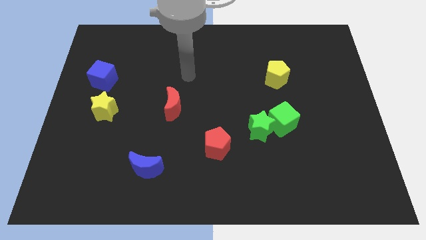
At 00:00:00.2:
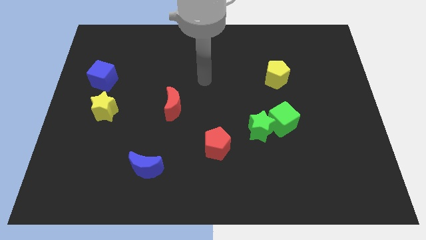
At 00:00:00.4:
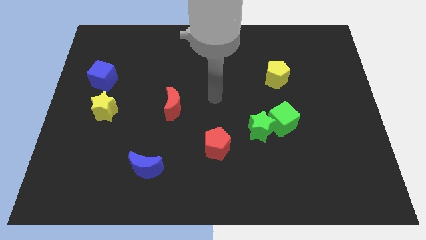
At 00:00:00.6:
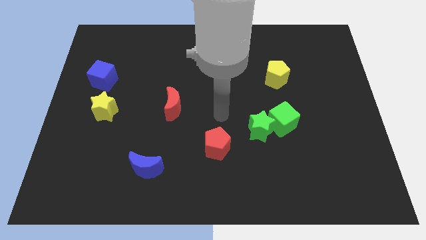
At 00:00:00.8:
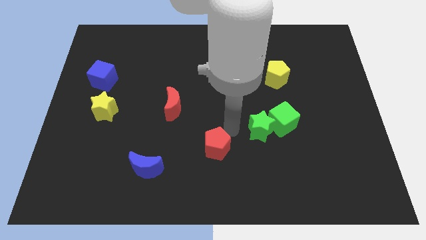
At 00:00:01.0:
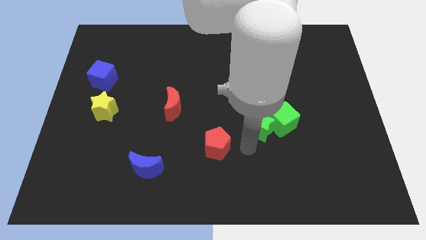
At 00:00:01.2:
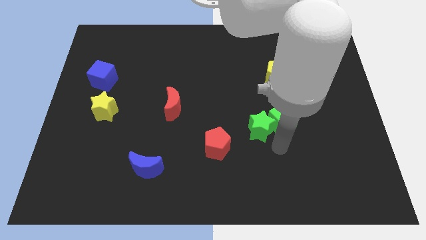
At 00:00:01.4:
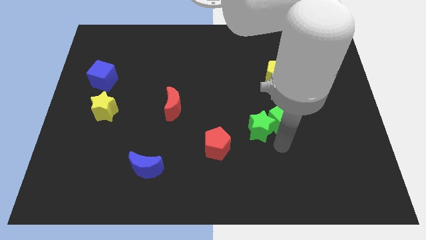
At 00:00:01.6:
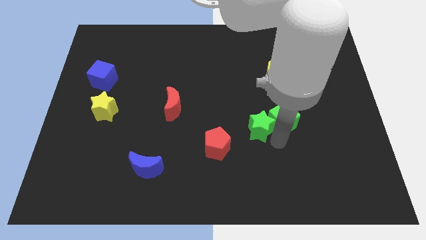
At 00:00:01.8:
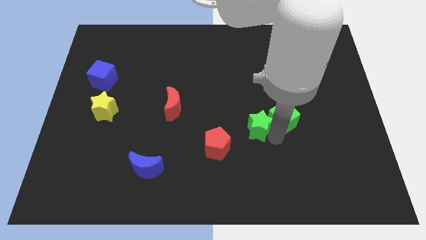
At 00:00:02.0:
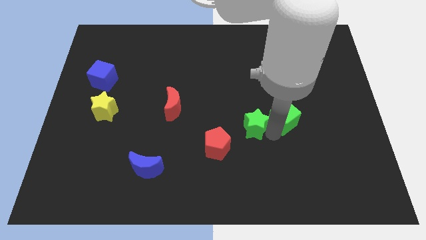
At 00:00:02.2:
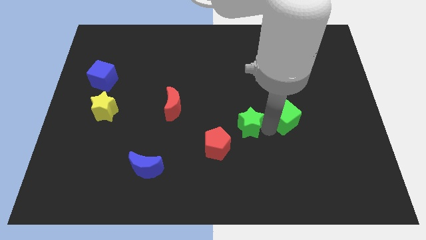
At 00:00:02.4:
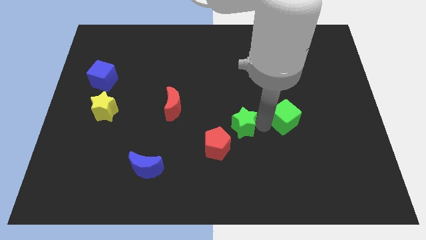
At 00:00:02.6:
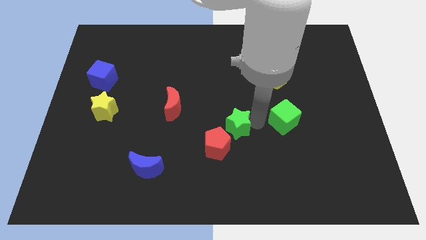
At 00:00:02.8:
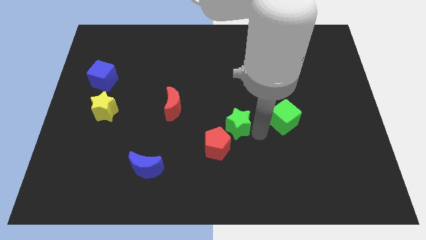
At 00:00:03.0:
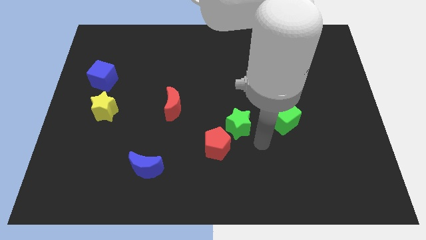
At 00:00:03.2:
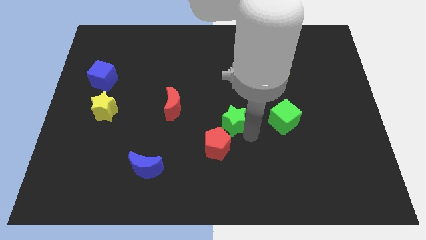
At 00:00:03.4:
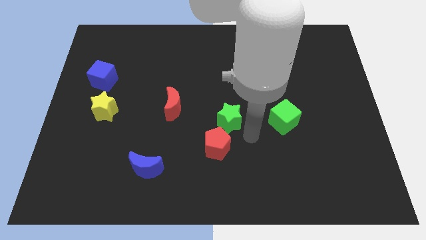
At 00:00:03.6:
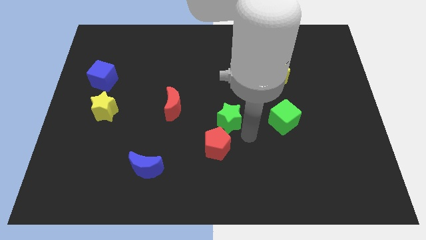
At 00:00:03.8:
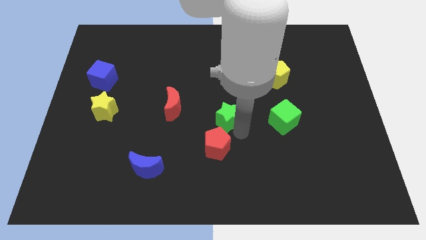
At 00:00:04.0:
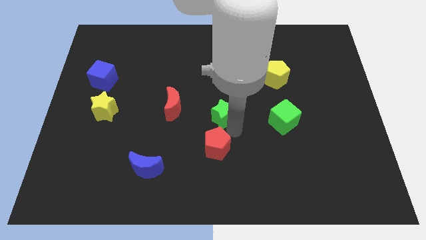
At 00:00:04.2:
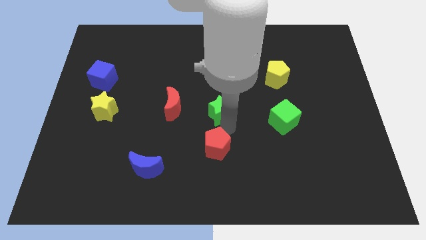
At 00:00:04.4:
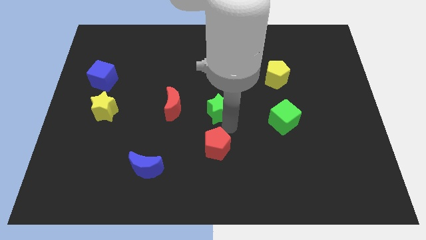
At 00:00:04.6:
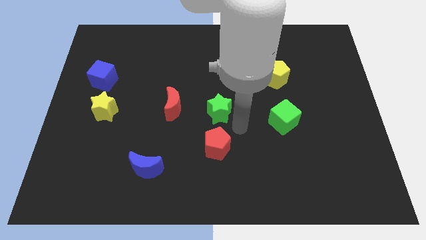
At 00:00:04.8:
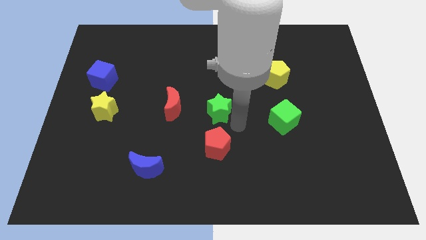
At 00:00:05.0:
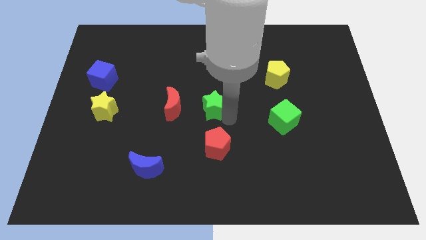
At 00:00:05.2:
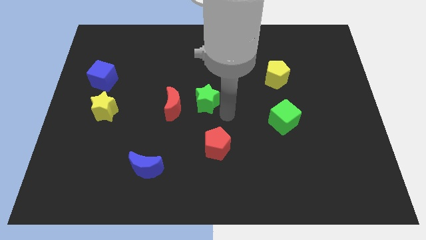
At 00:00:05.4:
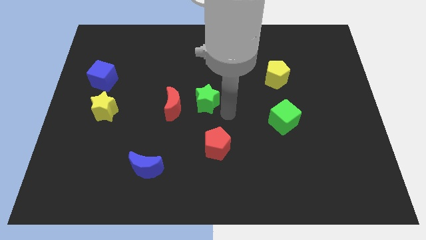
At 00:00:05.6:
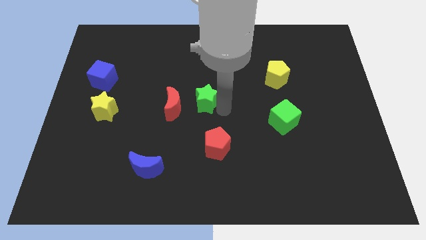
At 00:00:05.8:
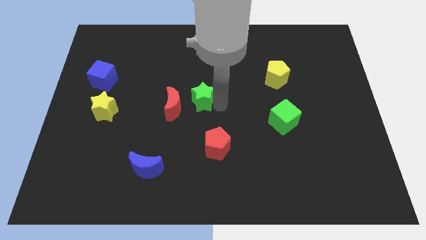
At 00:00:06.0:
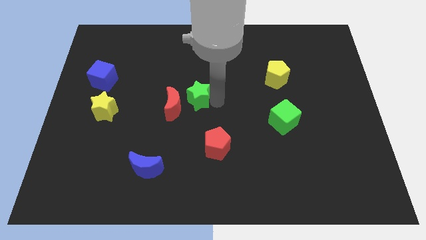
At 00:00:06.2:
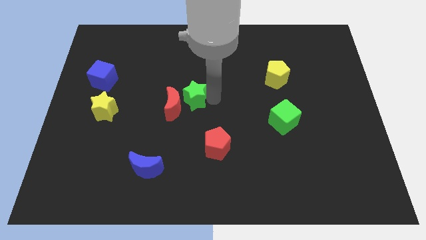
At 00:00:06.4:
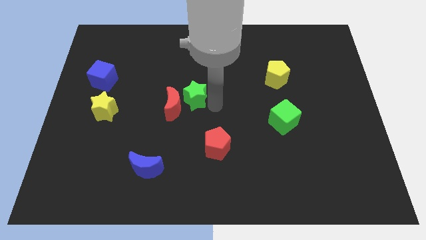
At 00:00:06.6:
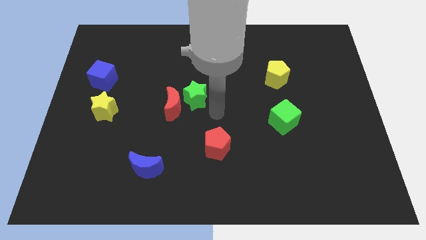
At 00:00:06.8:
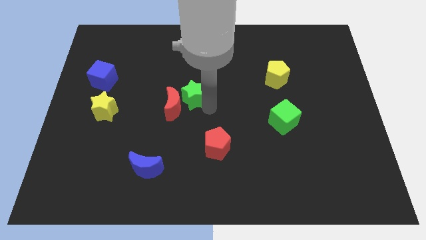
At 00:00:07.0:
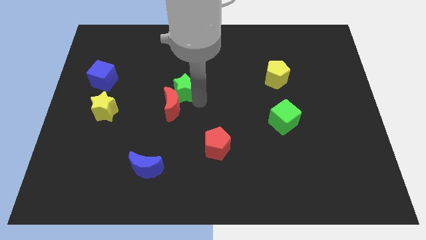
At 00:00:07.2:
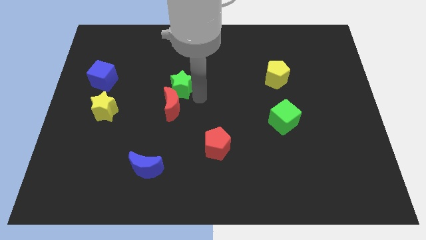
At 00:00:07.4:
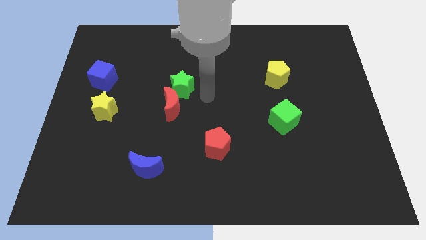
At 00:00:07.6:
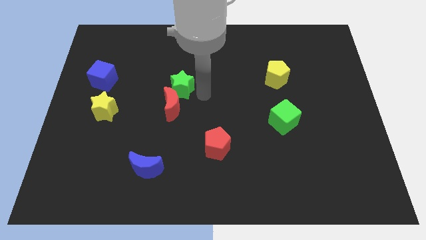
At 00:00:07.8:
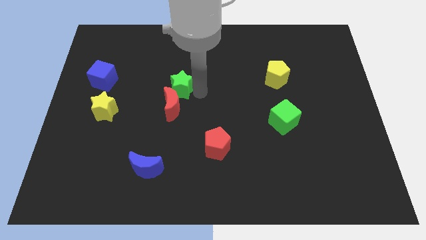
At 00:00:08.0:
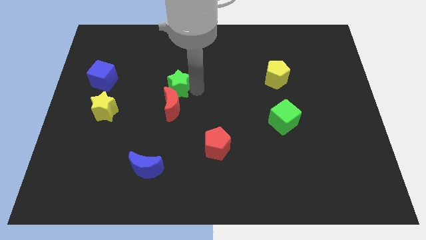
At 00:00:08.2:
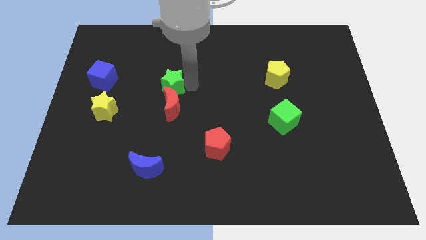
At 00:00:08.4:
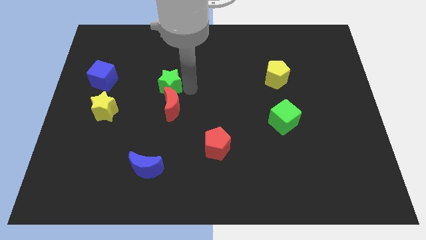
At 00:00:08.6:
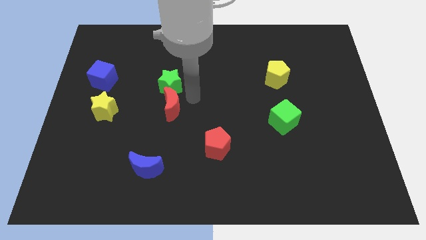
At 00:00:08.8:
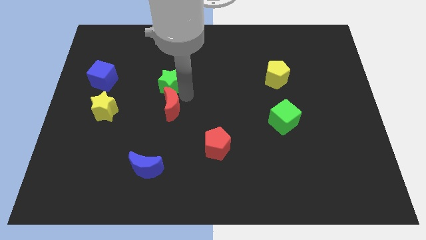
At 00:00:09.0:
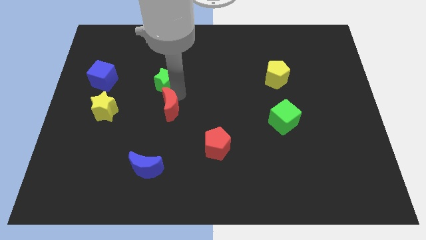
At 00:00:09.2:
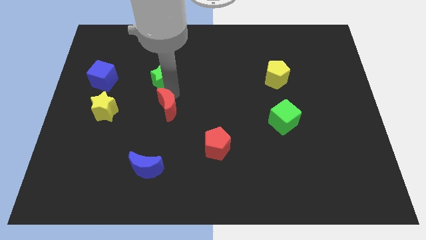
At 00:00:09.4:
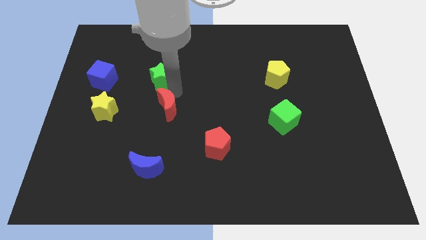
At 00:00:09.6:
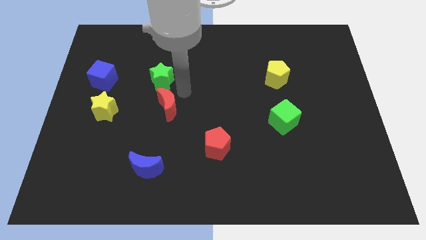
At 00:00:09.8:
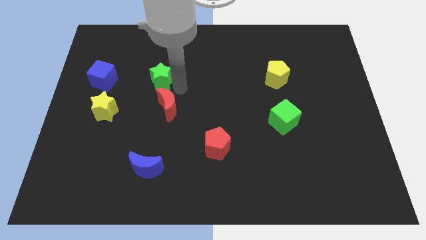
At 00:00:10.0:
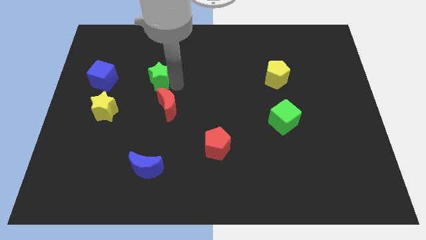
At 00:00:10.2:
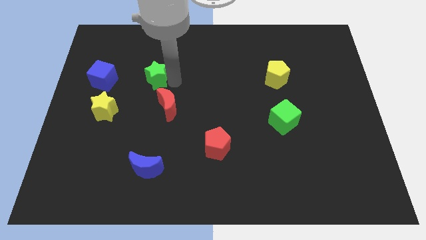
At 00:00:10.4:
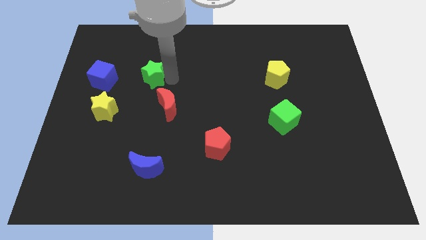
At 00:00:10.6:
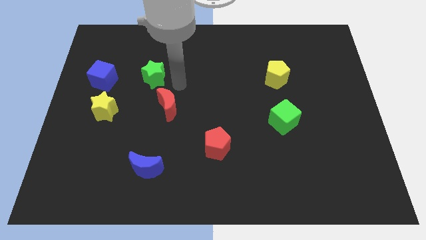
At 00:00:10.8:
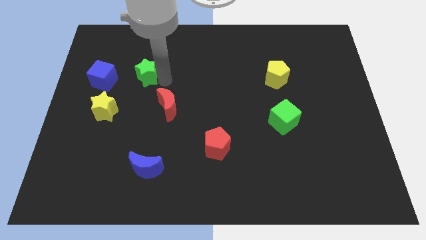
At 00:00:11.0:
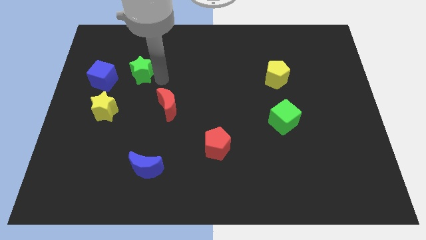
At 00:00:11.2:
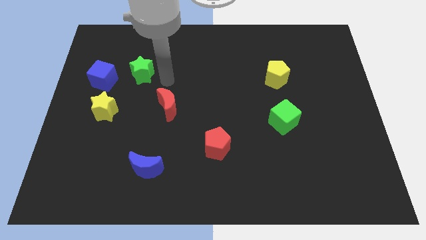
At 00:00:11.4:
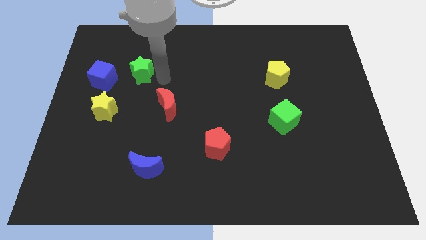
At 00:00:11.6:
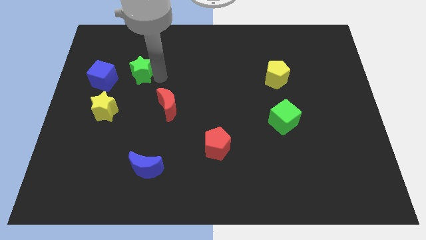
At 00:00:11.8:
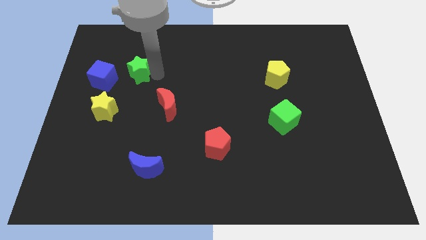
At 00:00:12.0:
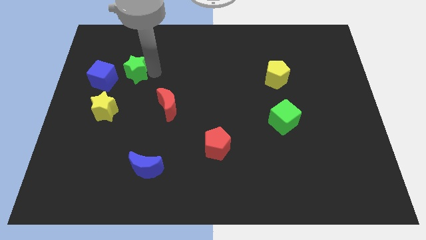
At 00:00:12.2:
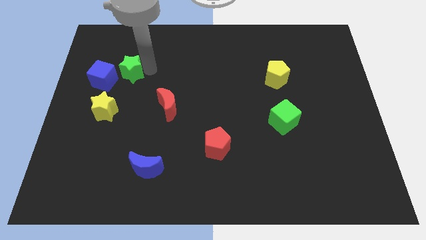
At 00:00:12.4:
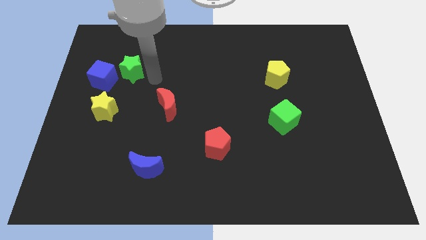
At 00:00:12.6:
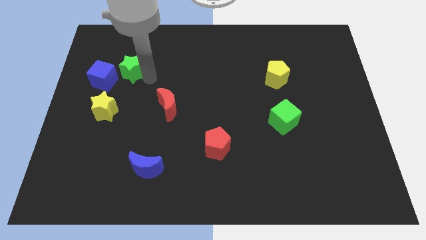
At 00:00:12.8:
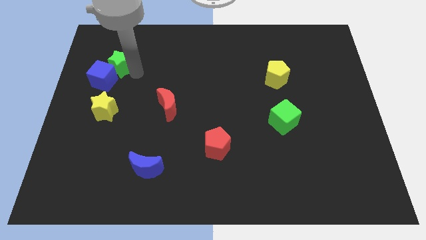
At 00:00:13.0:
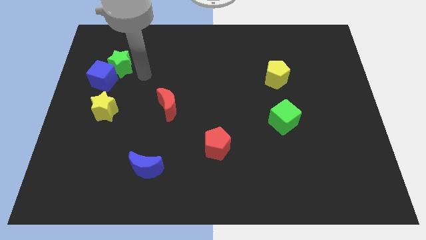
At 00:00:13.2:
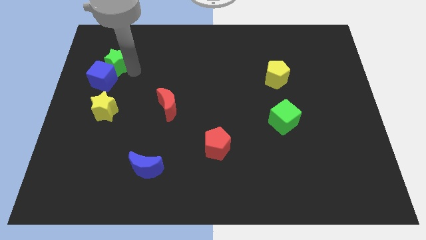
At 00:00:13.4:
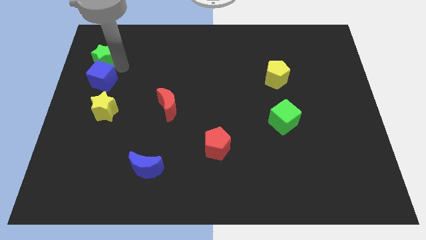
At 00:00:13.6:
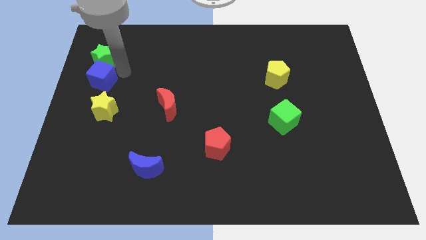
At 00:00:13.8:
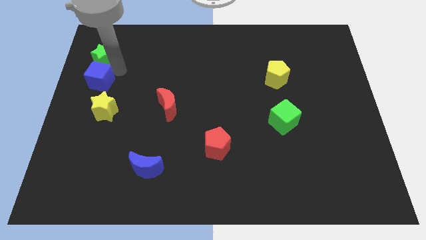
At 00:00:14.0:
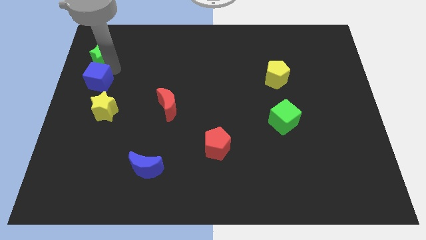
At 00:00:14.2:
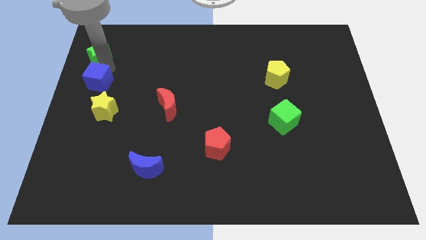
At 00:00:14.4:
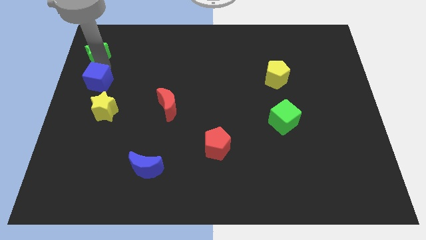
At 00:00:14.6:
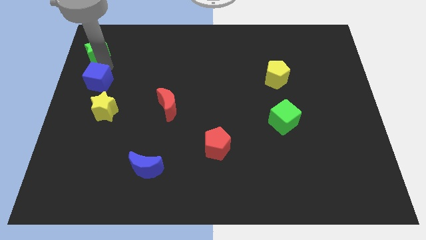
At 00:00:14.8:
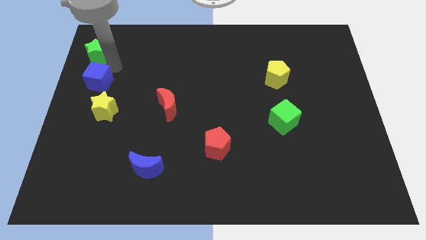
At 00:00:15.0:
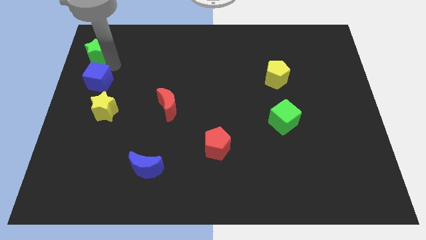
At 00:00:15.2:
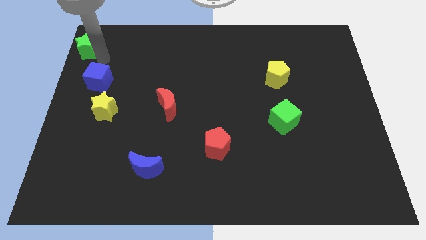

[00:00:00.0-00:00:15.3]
push the green star to the upper left corner
